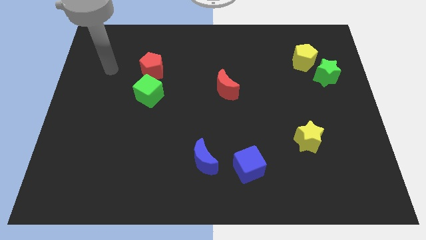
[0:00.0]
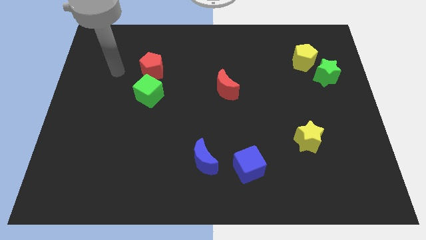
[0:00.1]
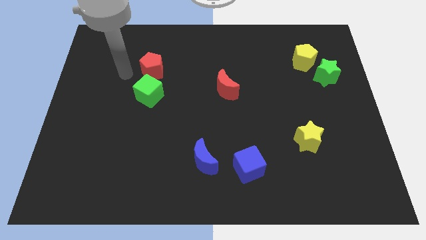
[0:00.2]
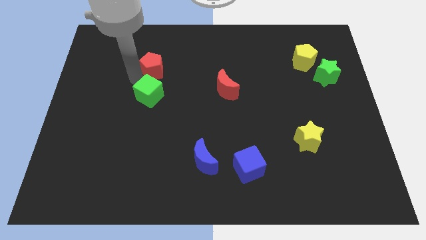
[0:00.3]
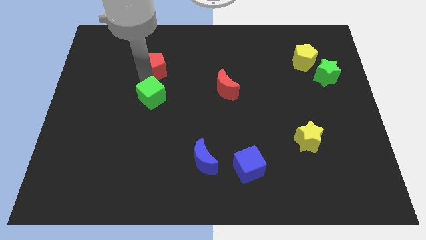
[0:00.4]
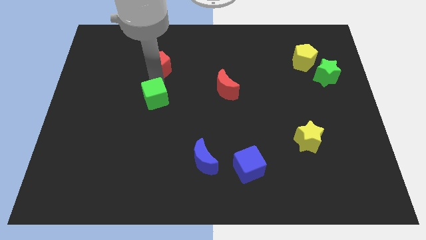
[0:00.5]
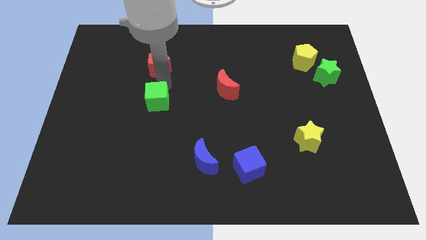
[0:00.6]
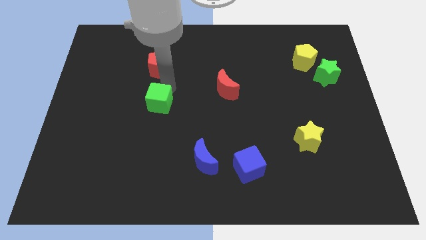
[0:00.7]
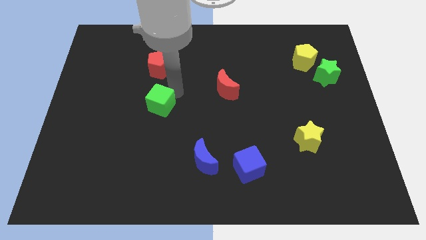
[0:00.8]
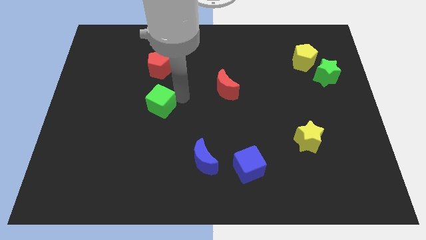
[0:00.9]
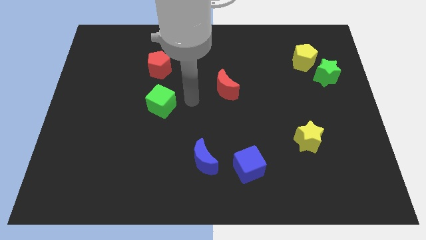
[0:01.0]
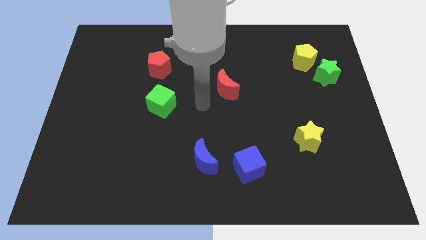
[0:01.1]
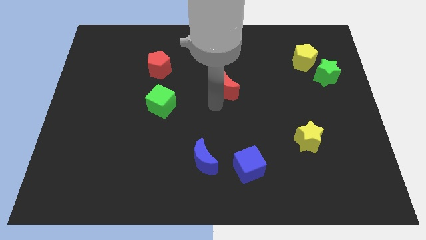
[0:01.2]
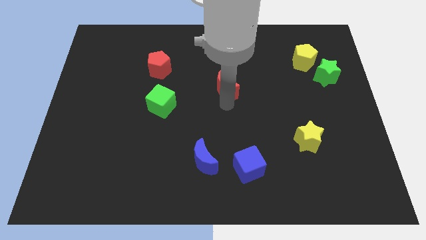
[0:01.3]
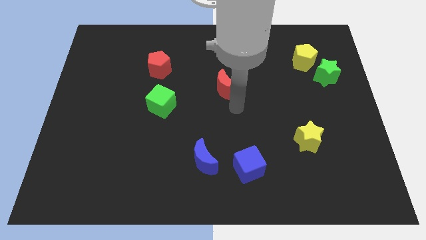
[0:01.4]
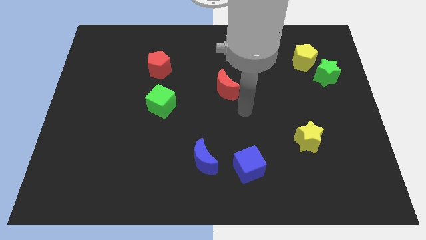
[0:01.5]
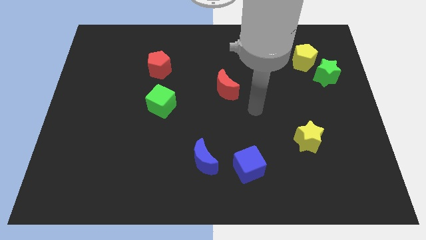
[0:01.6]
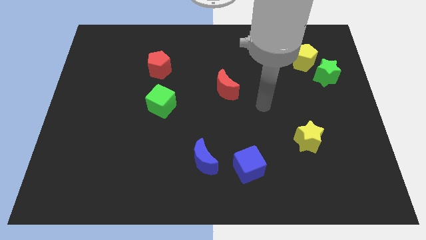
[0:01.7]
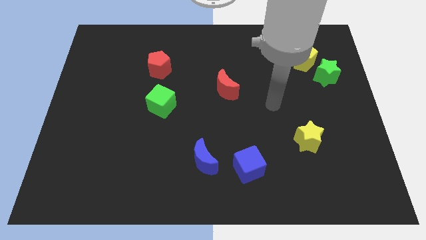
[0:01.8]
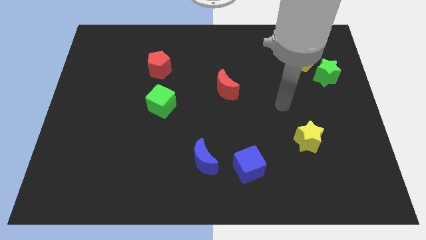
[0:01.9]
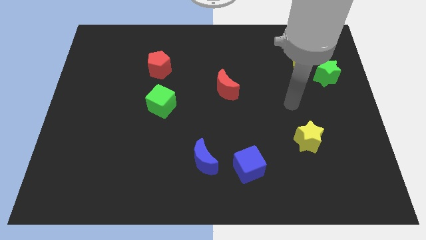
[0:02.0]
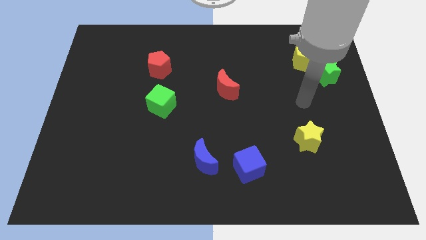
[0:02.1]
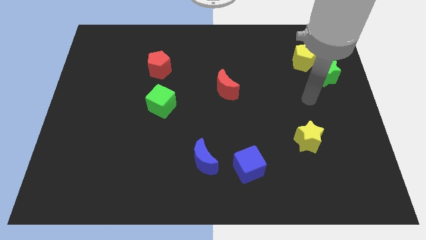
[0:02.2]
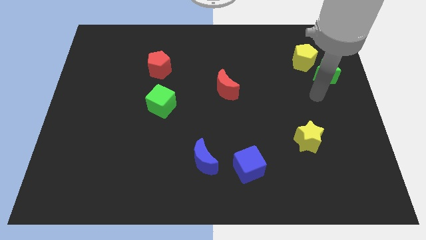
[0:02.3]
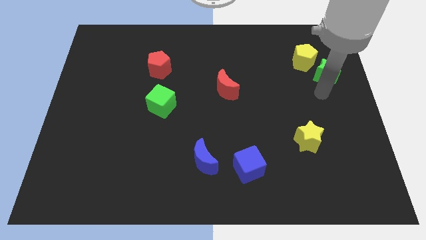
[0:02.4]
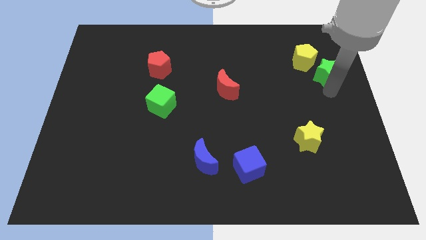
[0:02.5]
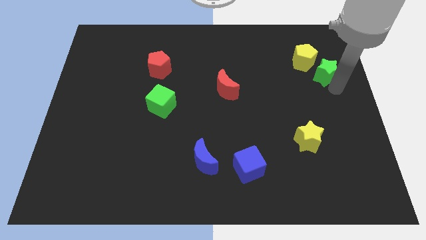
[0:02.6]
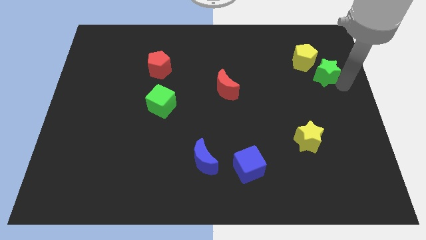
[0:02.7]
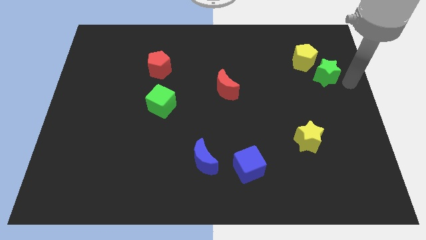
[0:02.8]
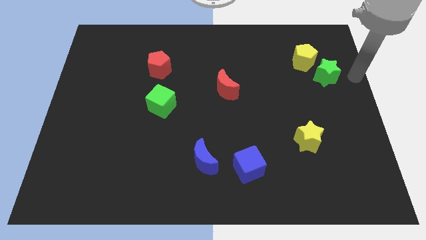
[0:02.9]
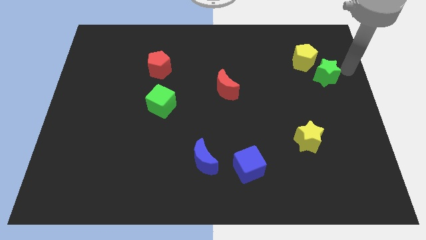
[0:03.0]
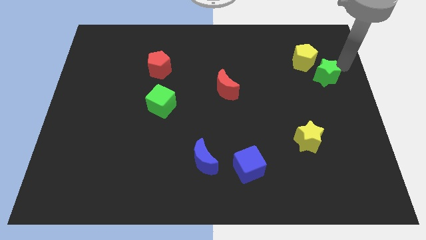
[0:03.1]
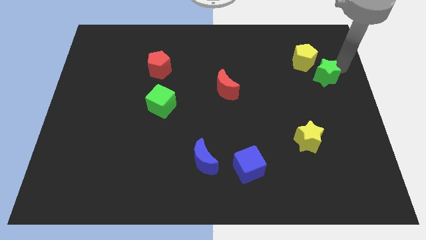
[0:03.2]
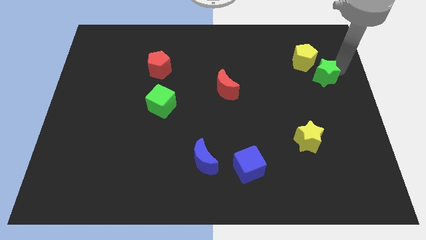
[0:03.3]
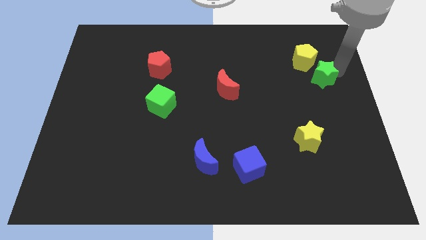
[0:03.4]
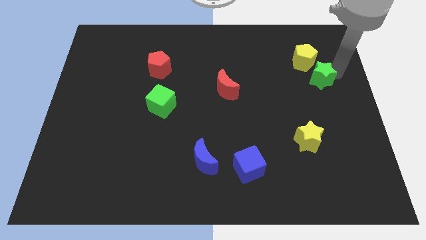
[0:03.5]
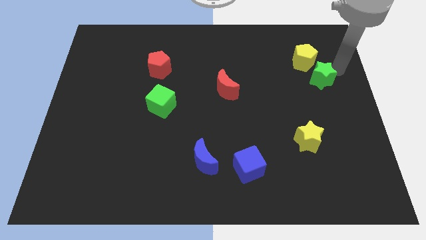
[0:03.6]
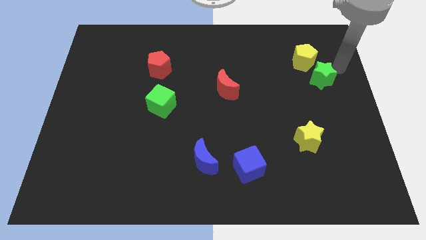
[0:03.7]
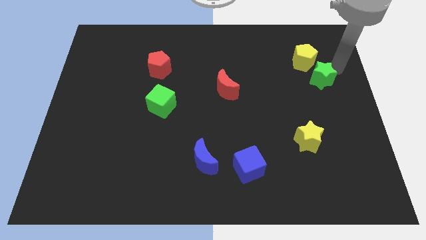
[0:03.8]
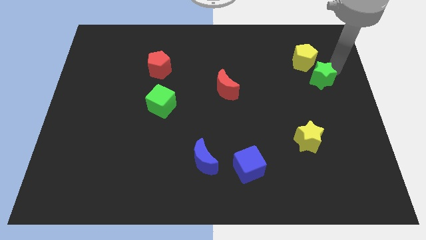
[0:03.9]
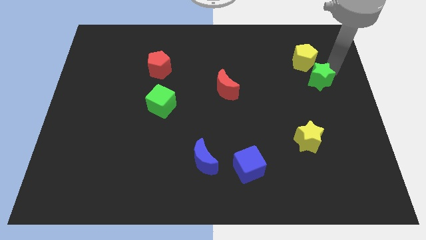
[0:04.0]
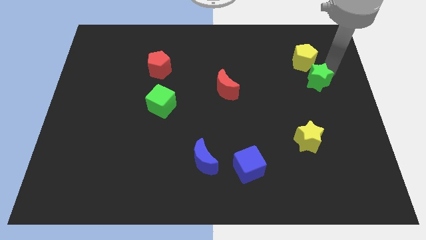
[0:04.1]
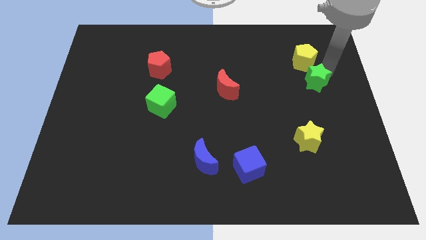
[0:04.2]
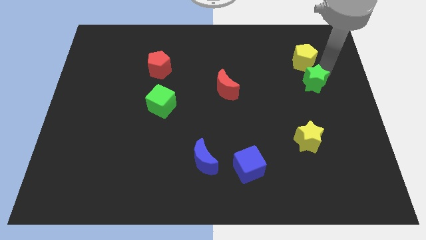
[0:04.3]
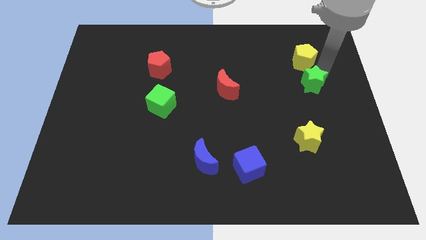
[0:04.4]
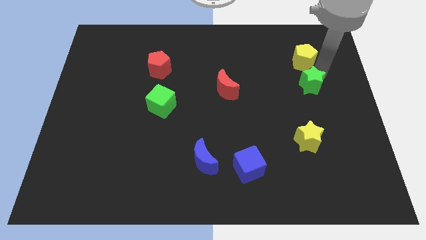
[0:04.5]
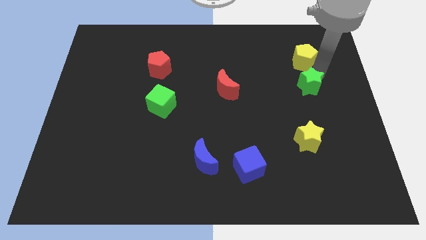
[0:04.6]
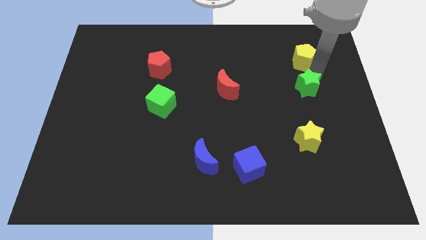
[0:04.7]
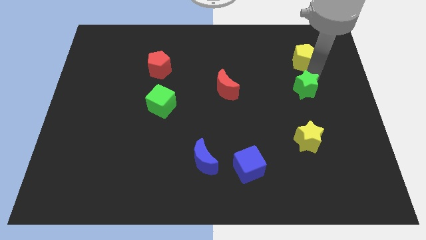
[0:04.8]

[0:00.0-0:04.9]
move the green star a little bit diagonally downwards and to the left

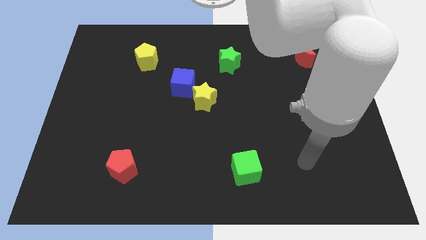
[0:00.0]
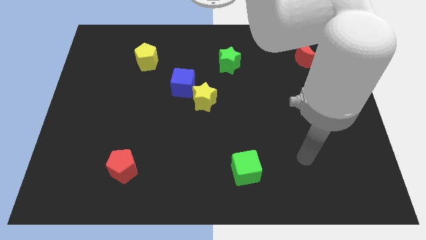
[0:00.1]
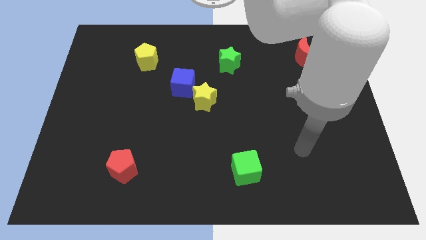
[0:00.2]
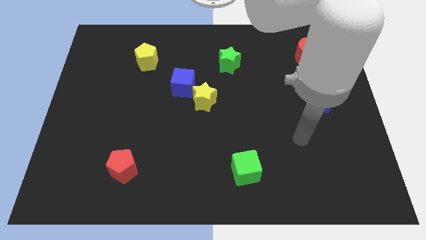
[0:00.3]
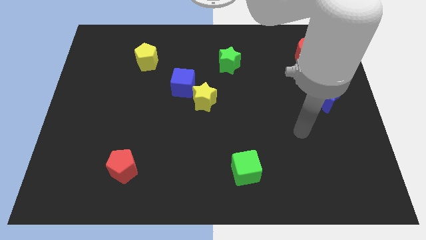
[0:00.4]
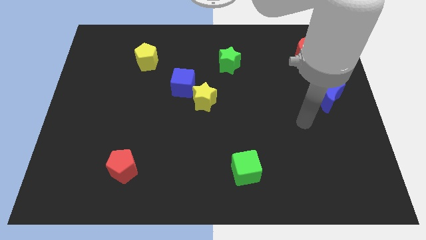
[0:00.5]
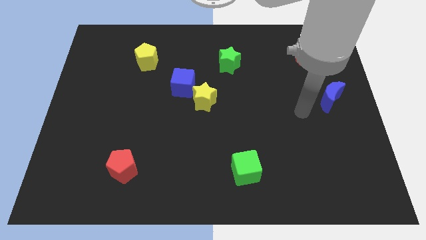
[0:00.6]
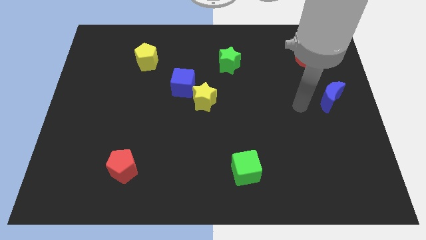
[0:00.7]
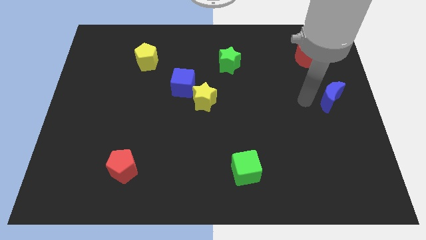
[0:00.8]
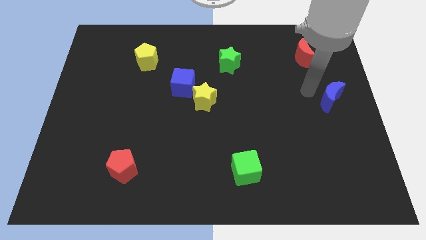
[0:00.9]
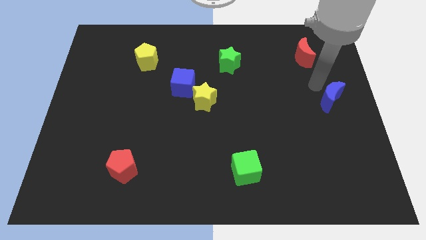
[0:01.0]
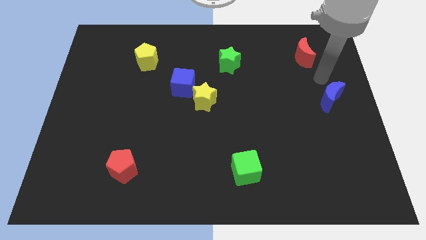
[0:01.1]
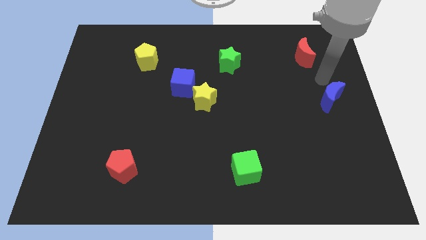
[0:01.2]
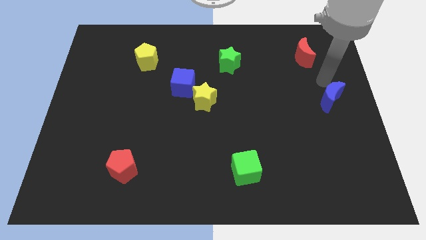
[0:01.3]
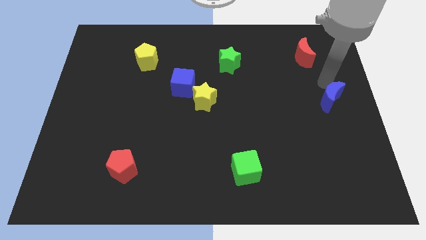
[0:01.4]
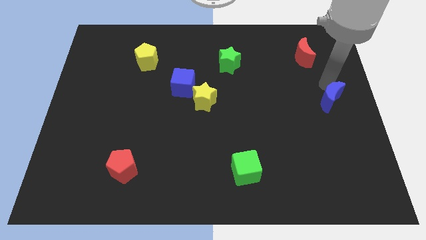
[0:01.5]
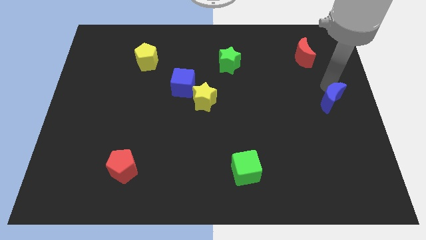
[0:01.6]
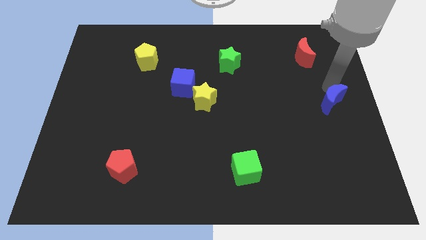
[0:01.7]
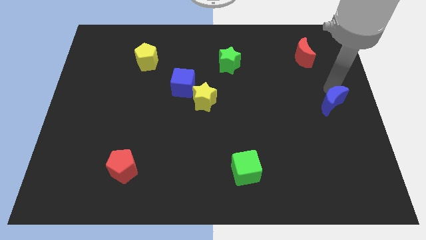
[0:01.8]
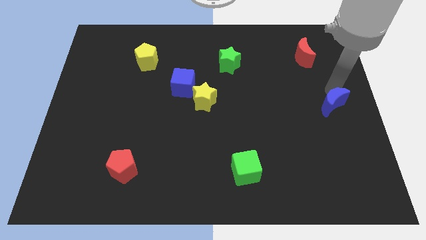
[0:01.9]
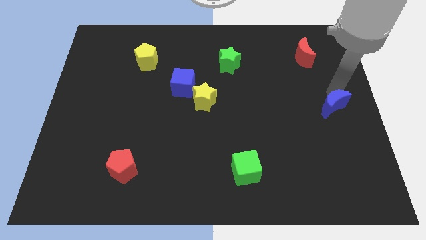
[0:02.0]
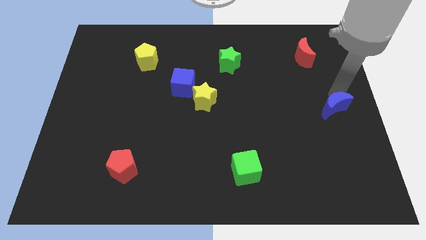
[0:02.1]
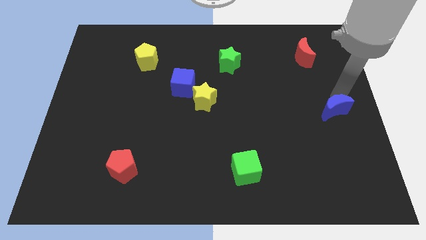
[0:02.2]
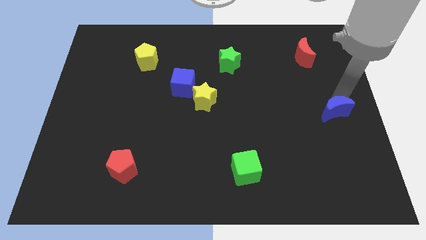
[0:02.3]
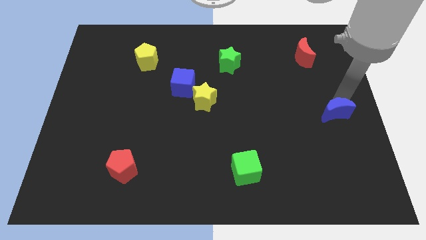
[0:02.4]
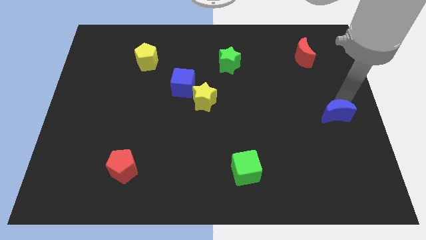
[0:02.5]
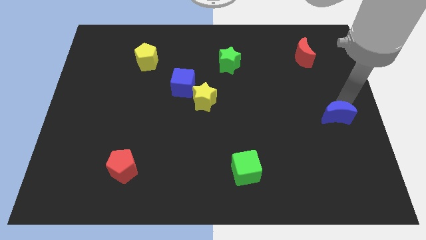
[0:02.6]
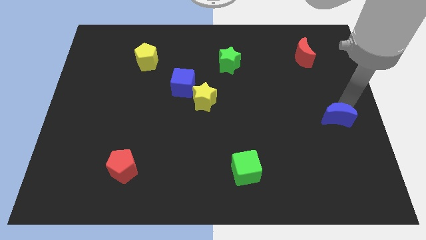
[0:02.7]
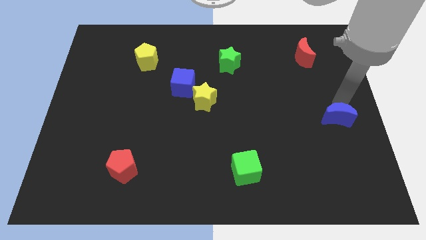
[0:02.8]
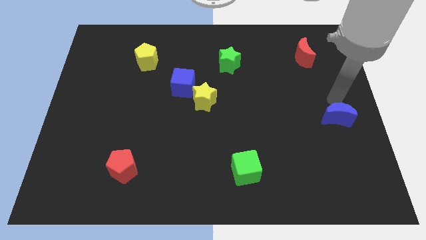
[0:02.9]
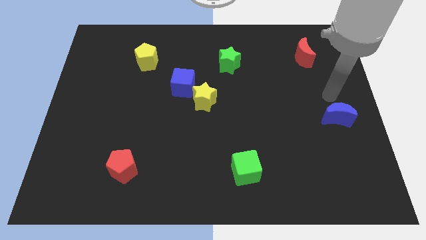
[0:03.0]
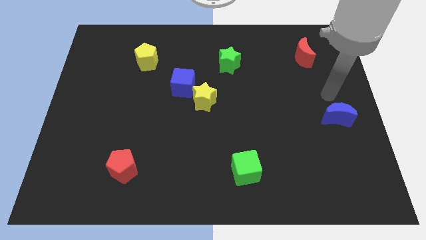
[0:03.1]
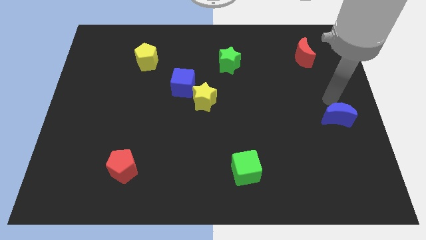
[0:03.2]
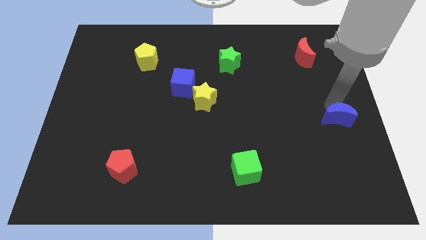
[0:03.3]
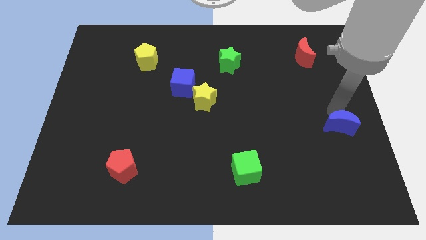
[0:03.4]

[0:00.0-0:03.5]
push the blue moon down a bit
